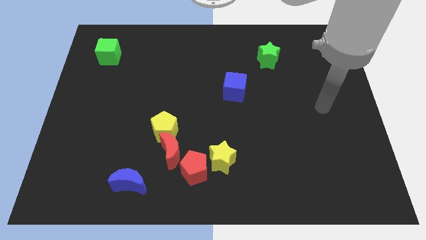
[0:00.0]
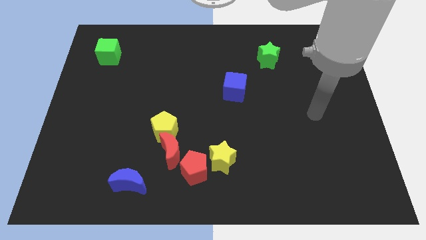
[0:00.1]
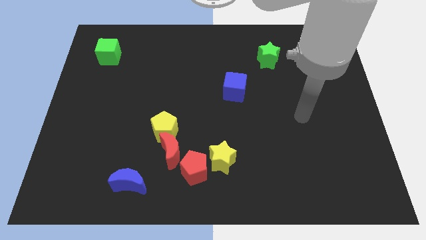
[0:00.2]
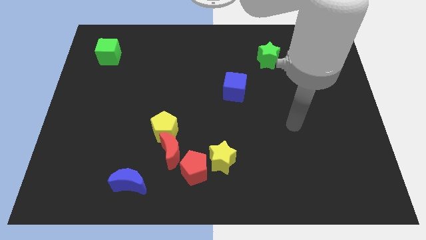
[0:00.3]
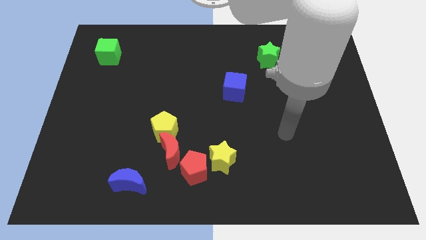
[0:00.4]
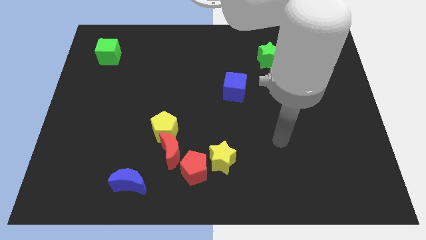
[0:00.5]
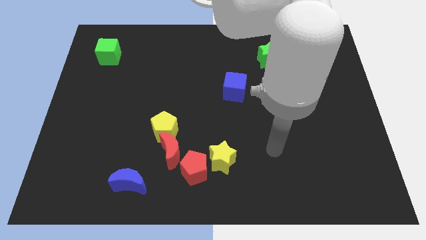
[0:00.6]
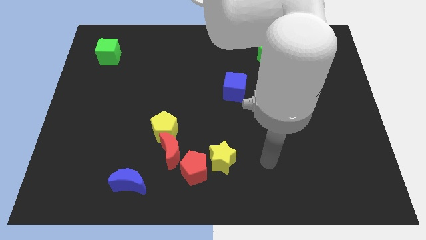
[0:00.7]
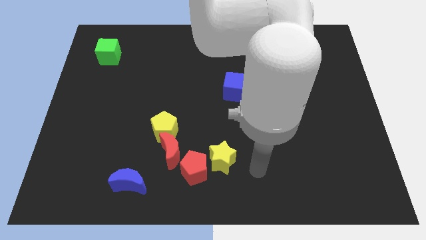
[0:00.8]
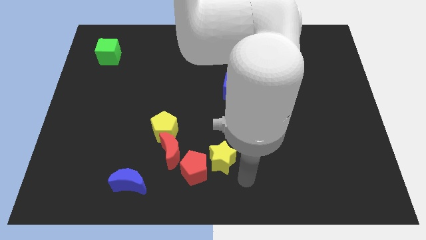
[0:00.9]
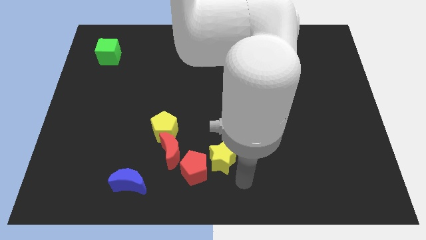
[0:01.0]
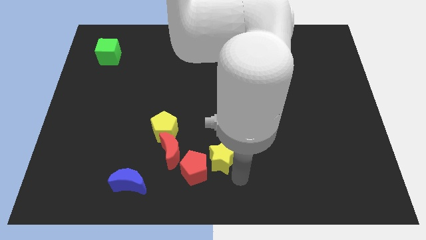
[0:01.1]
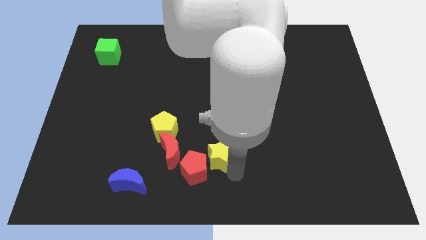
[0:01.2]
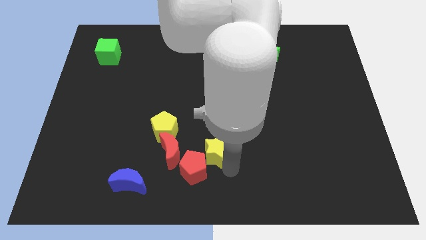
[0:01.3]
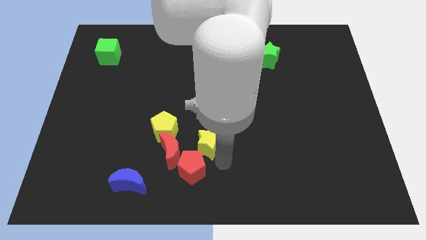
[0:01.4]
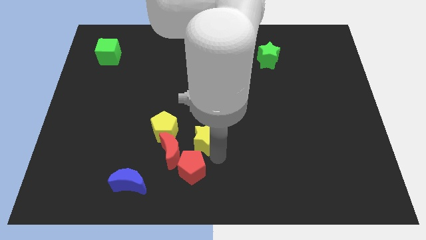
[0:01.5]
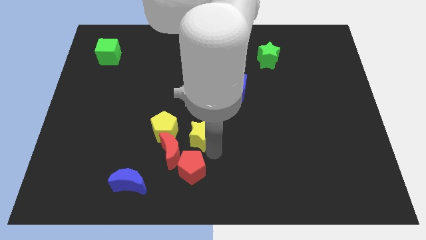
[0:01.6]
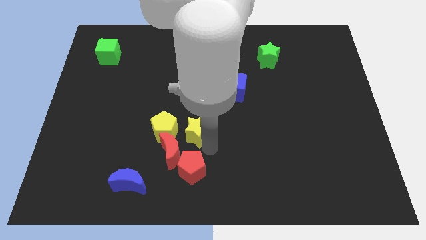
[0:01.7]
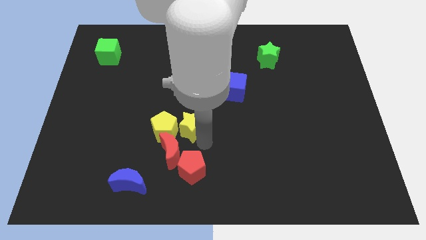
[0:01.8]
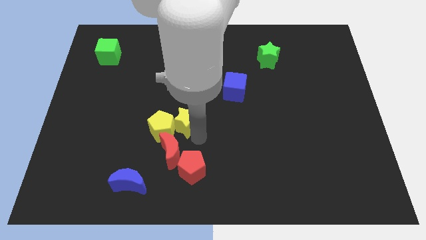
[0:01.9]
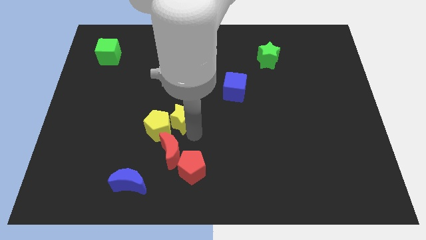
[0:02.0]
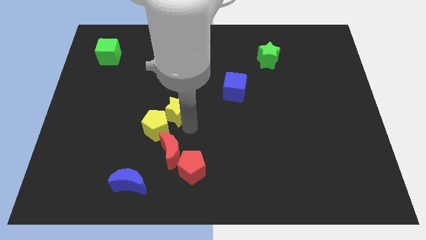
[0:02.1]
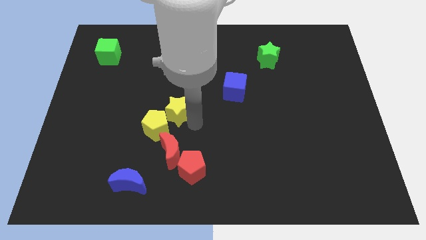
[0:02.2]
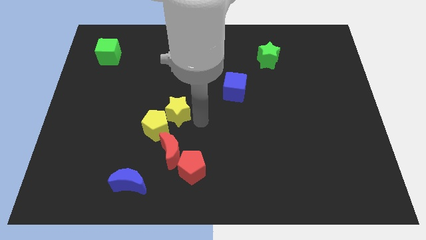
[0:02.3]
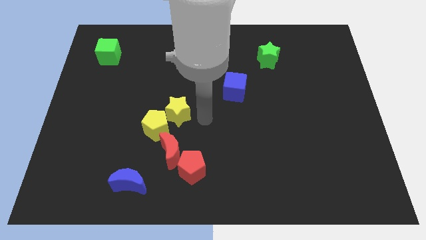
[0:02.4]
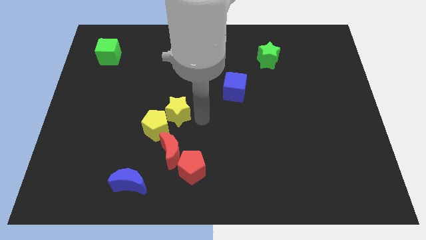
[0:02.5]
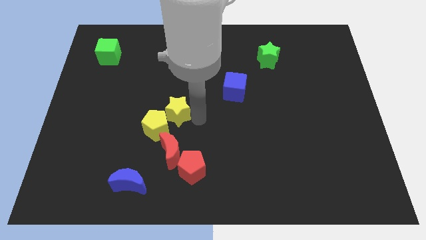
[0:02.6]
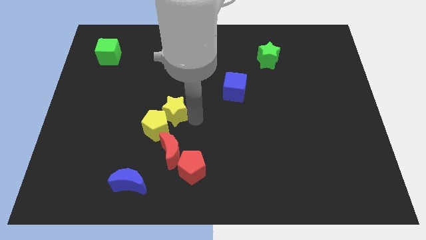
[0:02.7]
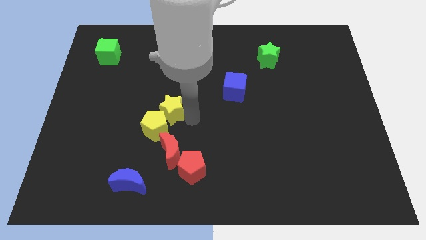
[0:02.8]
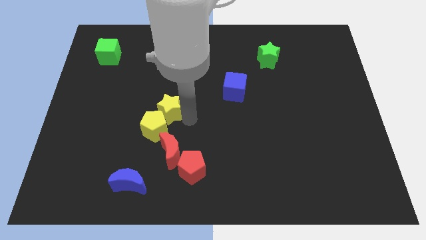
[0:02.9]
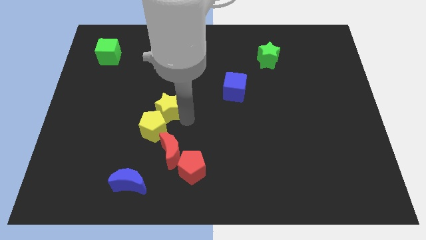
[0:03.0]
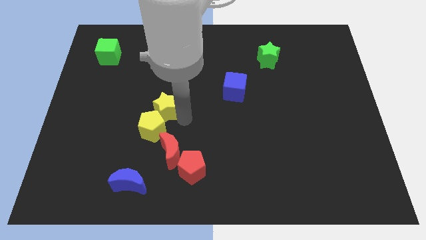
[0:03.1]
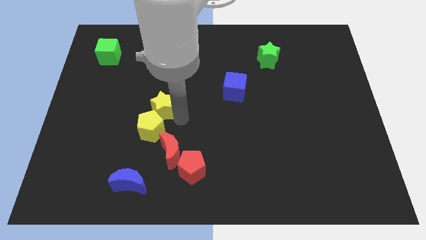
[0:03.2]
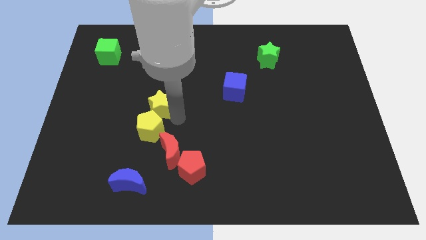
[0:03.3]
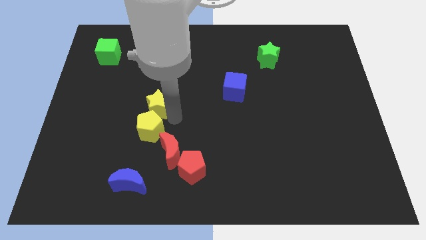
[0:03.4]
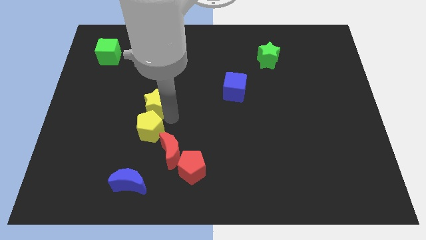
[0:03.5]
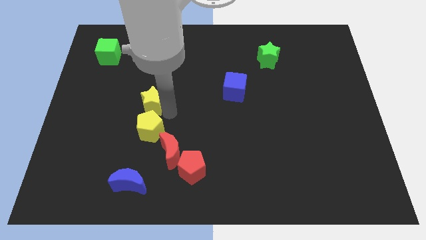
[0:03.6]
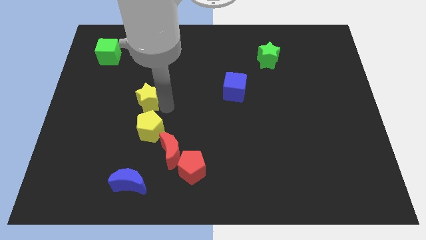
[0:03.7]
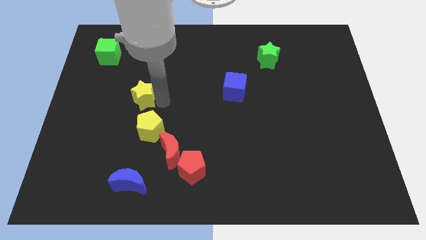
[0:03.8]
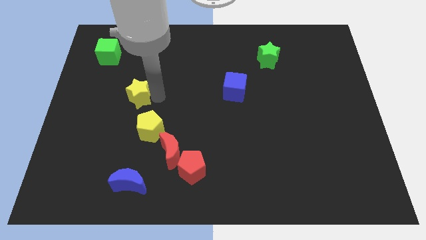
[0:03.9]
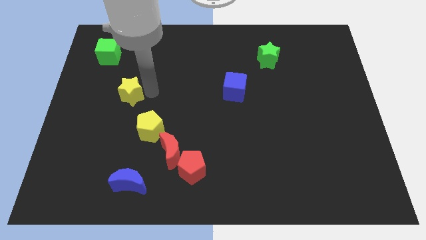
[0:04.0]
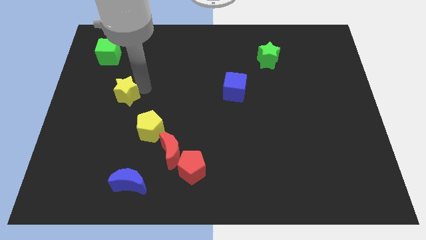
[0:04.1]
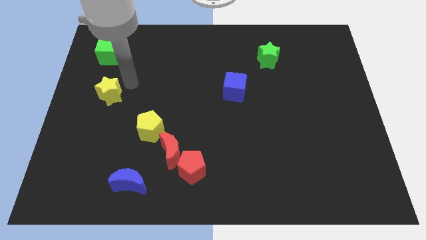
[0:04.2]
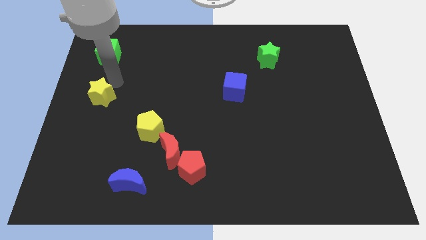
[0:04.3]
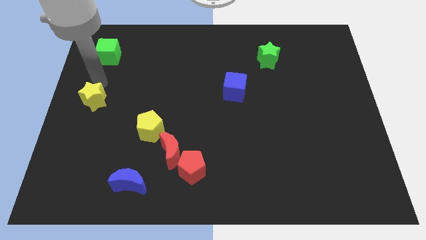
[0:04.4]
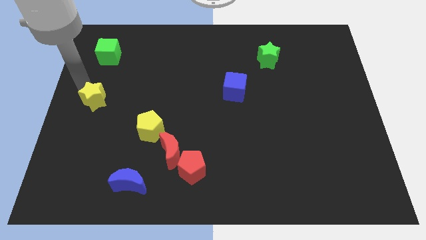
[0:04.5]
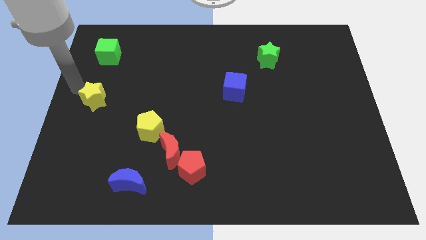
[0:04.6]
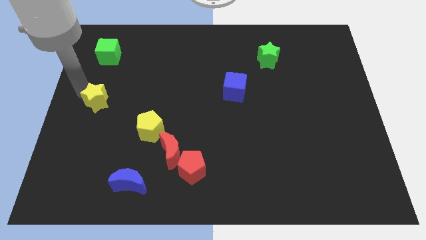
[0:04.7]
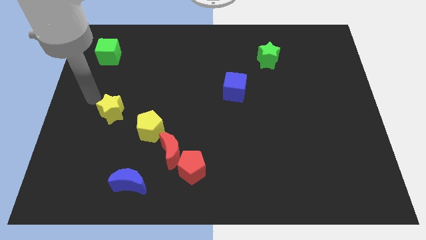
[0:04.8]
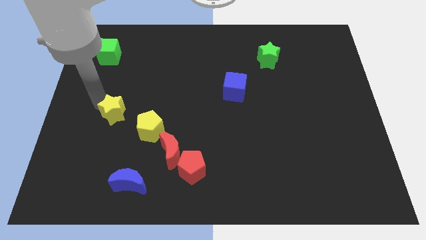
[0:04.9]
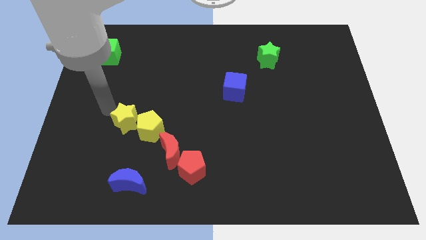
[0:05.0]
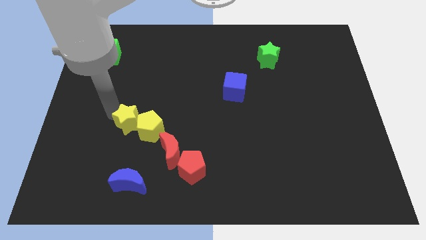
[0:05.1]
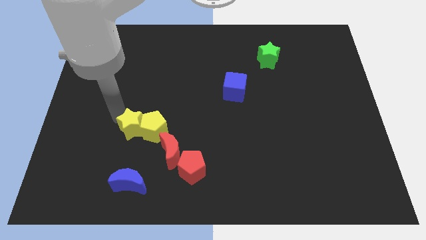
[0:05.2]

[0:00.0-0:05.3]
put the yellow star to the top left side of the red moon

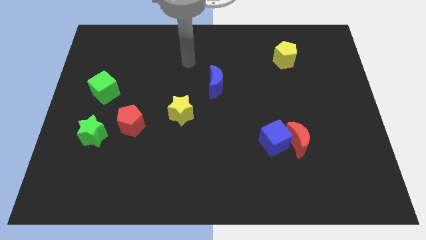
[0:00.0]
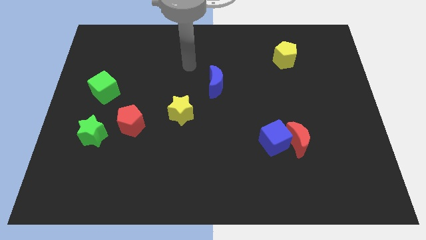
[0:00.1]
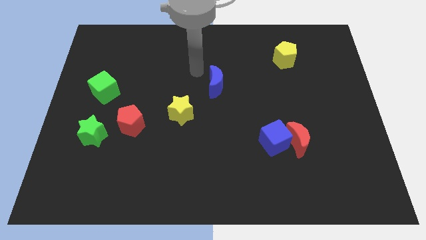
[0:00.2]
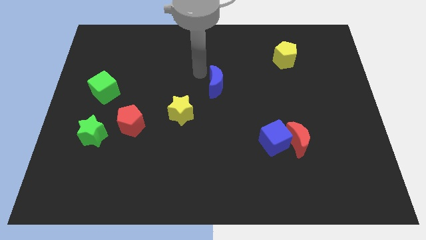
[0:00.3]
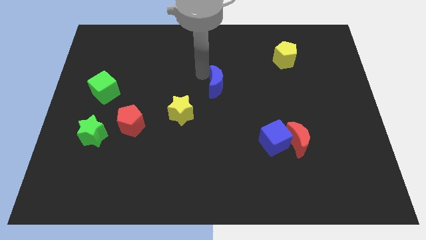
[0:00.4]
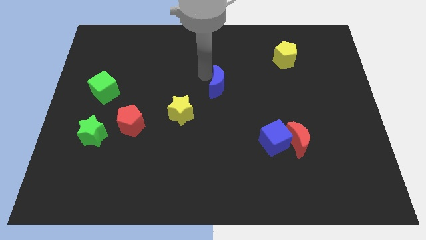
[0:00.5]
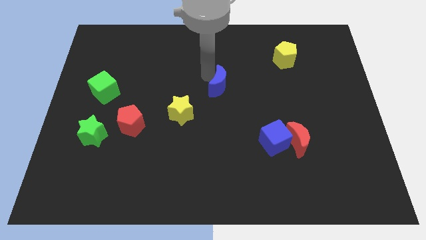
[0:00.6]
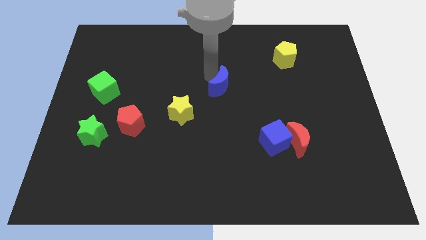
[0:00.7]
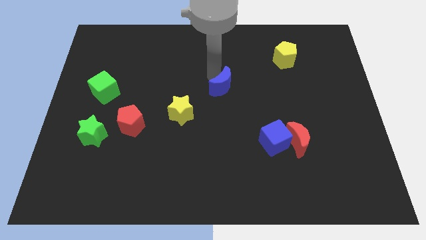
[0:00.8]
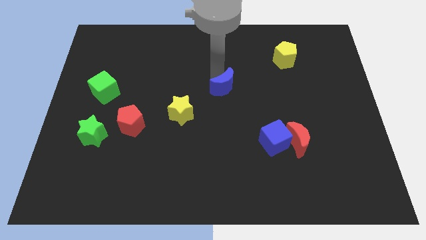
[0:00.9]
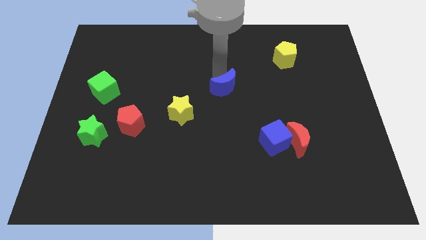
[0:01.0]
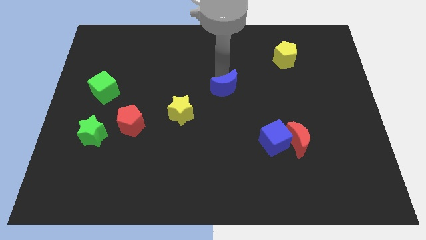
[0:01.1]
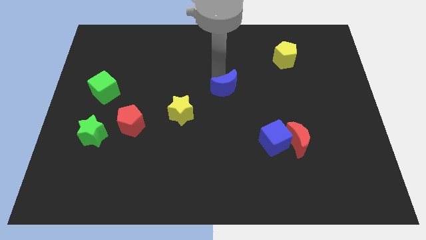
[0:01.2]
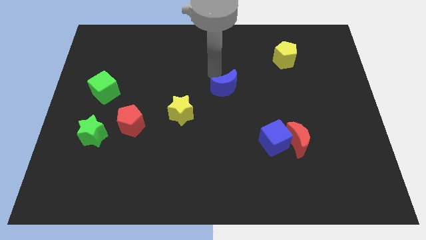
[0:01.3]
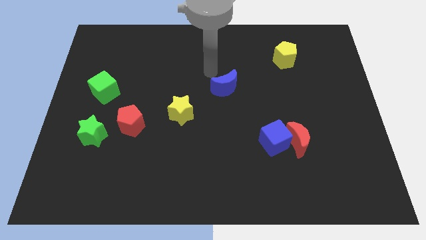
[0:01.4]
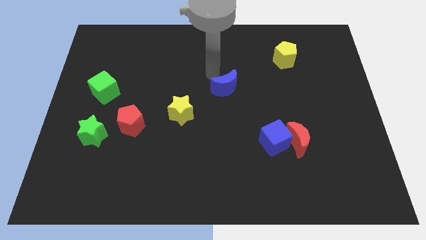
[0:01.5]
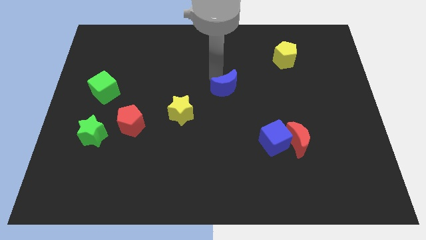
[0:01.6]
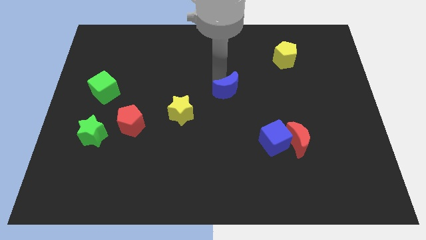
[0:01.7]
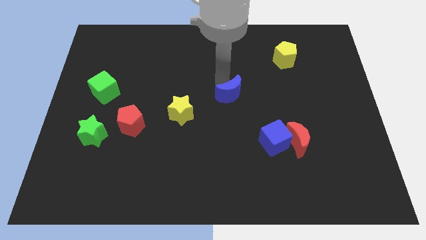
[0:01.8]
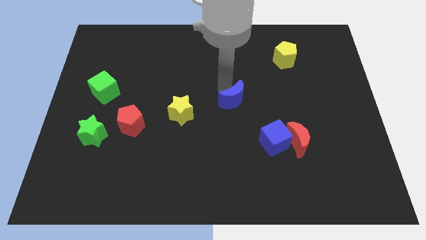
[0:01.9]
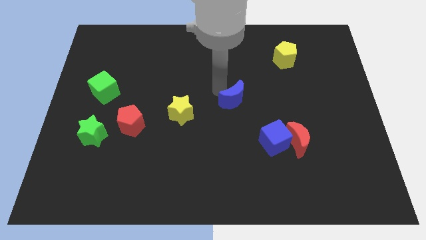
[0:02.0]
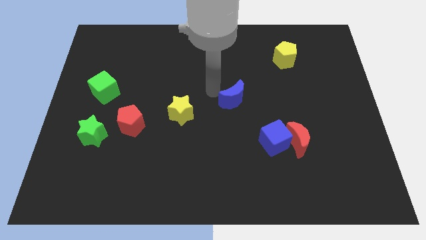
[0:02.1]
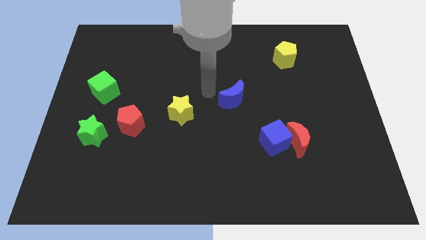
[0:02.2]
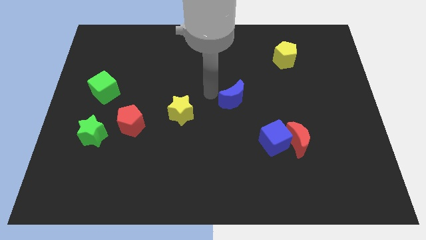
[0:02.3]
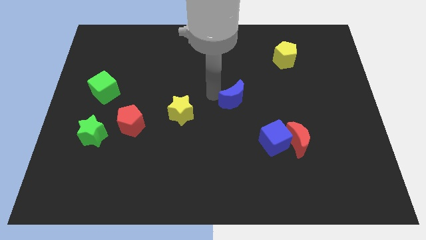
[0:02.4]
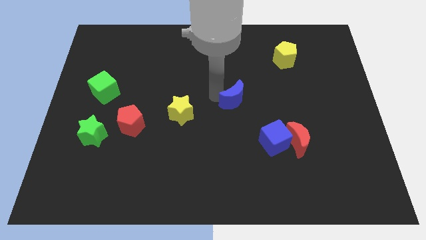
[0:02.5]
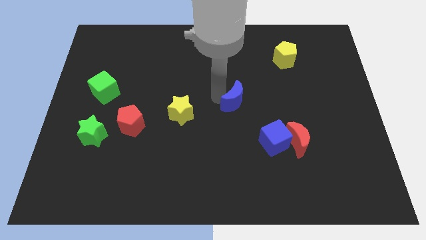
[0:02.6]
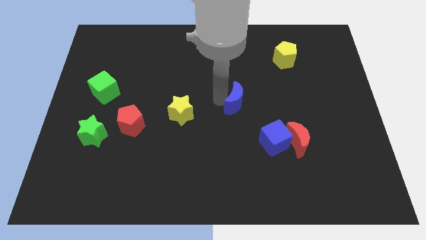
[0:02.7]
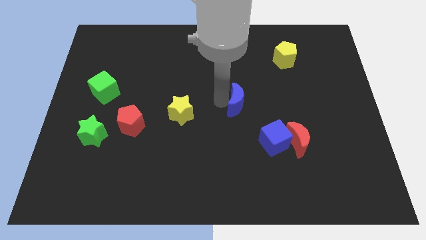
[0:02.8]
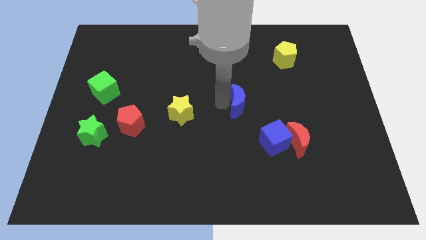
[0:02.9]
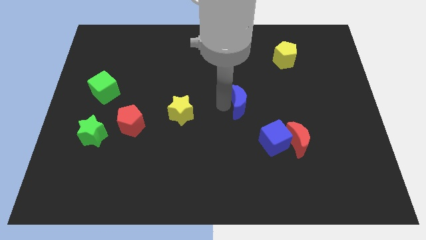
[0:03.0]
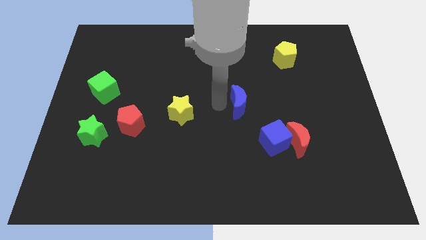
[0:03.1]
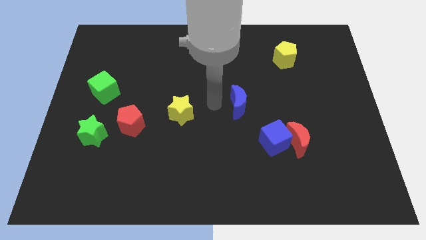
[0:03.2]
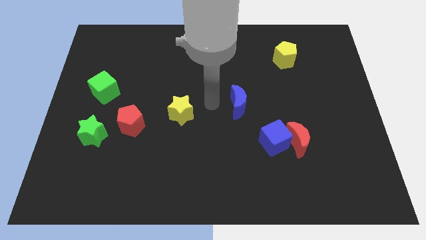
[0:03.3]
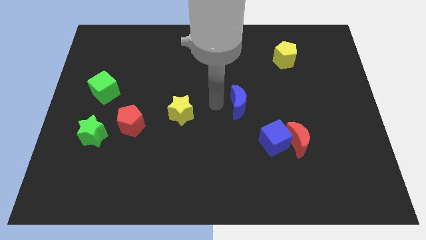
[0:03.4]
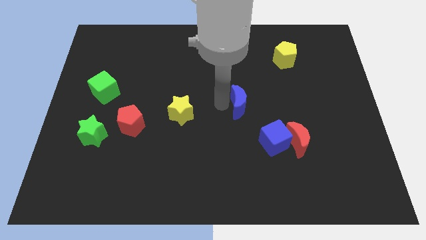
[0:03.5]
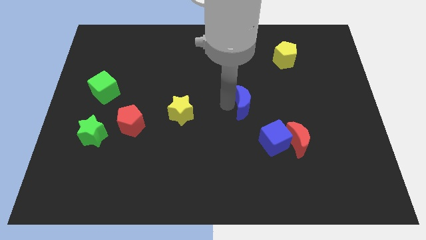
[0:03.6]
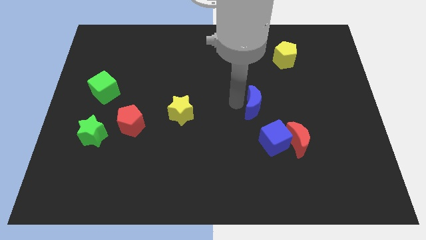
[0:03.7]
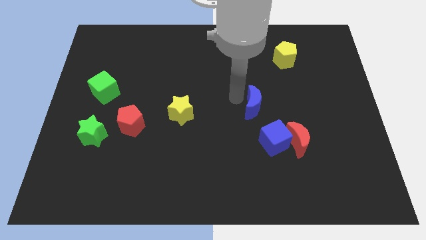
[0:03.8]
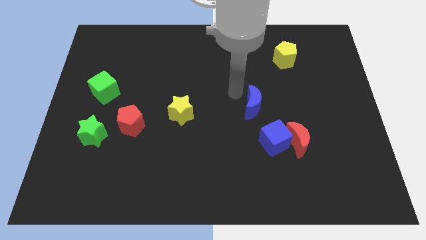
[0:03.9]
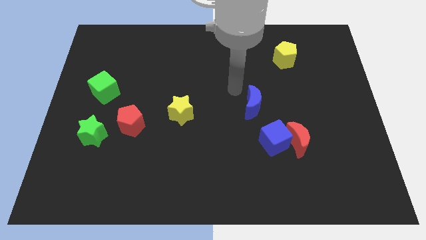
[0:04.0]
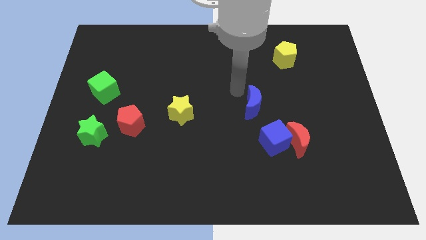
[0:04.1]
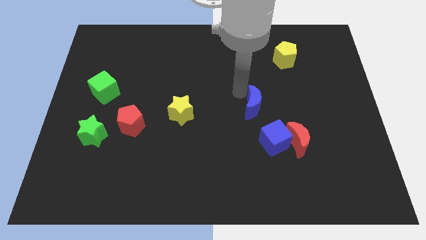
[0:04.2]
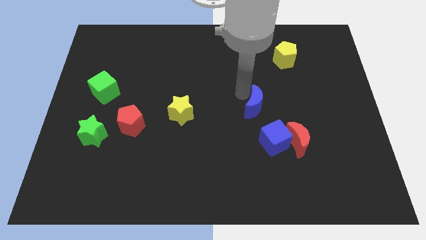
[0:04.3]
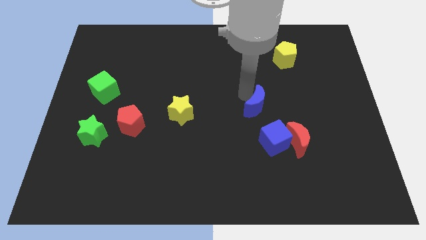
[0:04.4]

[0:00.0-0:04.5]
move the blue moon to the top left of the red moon
